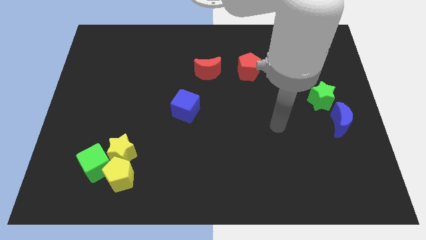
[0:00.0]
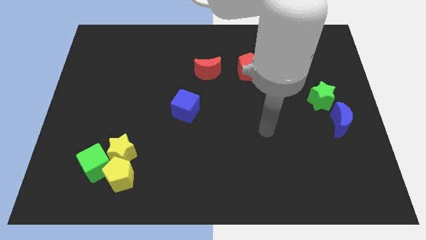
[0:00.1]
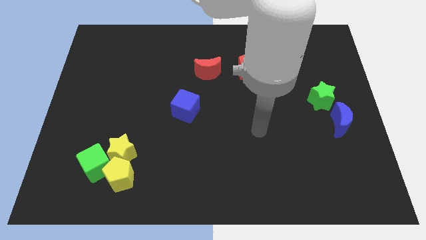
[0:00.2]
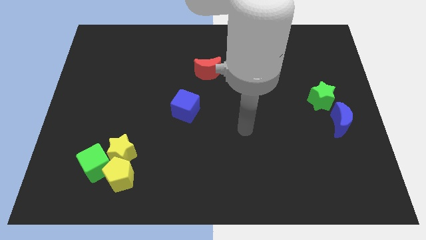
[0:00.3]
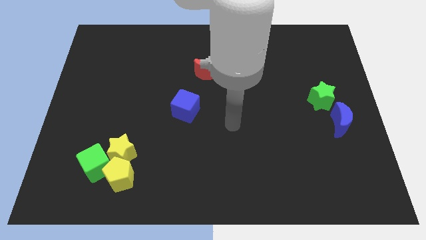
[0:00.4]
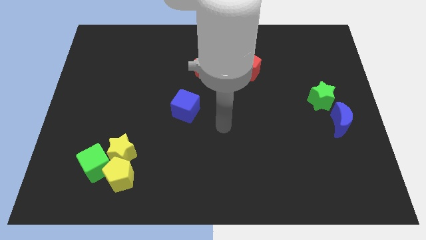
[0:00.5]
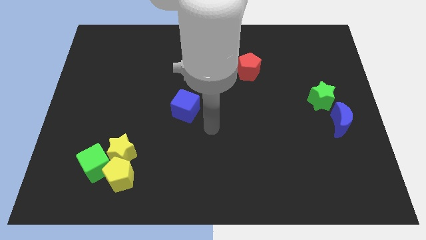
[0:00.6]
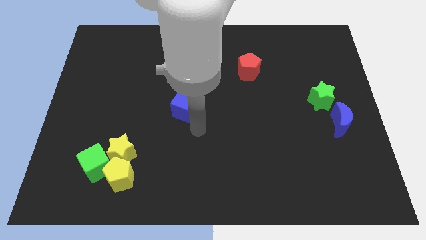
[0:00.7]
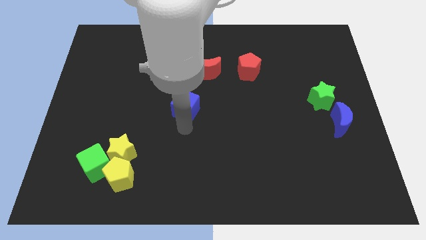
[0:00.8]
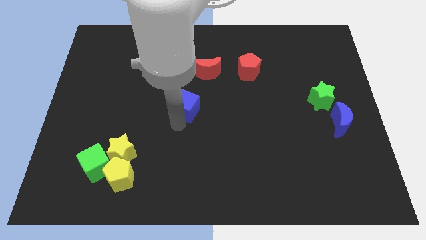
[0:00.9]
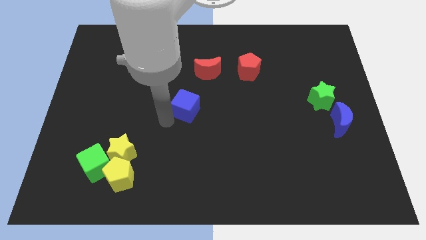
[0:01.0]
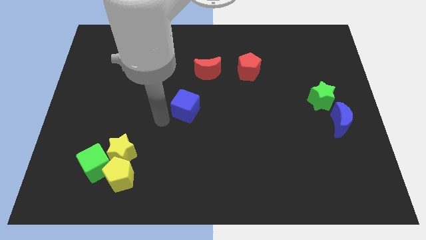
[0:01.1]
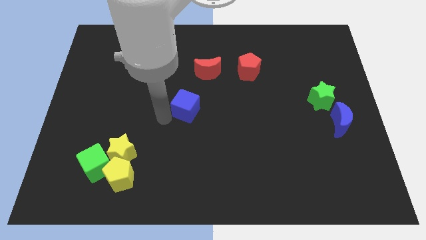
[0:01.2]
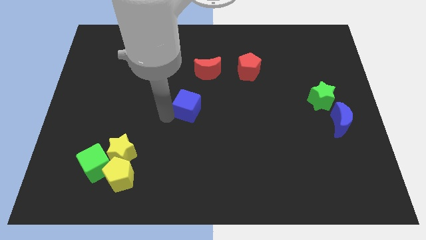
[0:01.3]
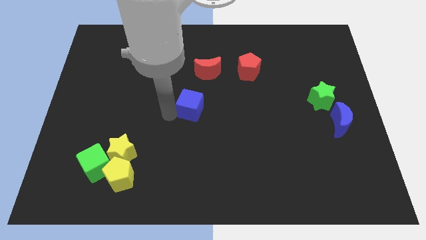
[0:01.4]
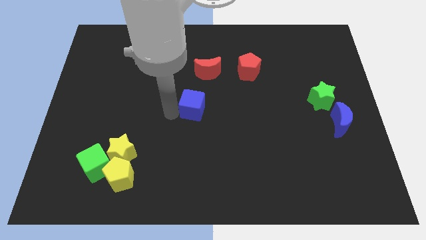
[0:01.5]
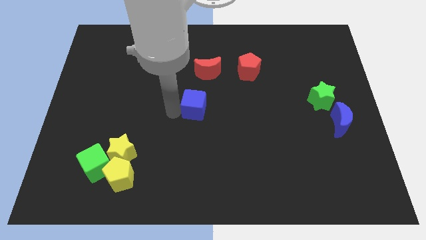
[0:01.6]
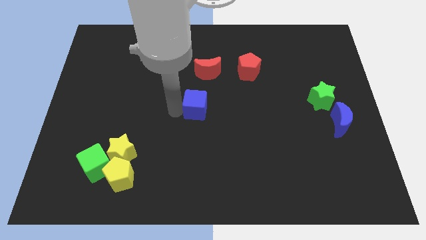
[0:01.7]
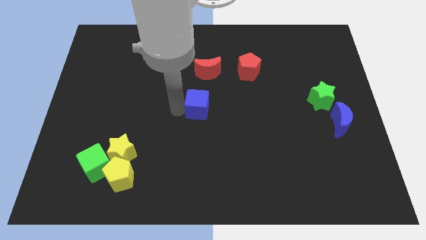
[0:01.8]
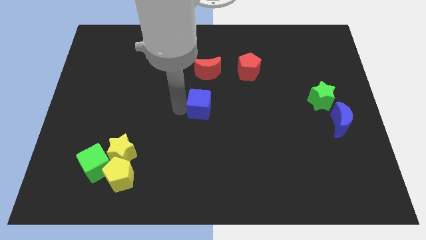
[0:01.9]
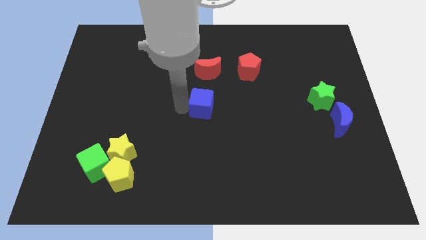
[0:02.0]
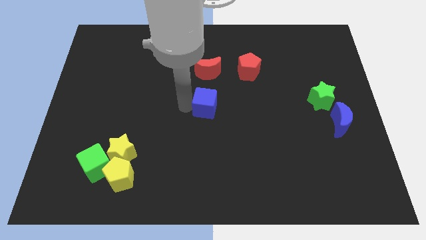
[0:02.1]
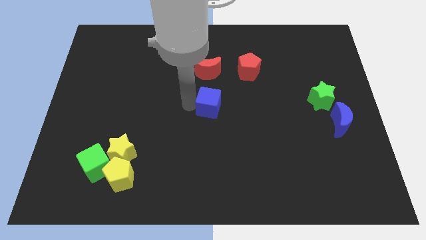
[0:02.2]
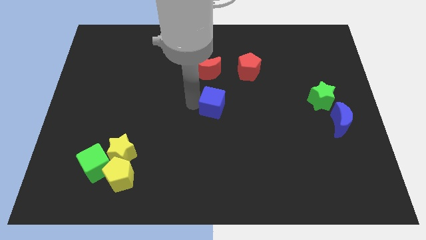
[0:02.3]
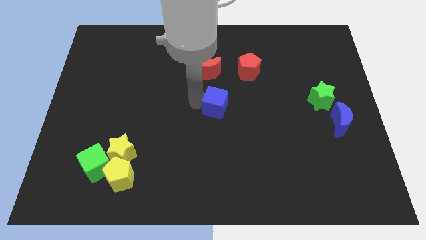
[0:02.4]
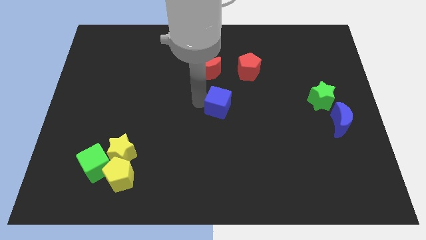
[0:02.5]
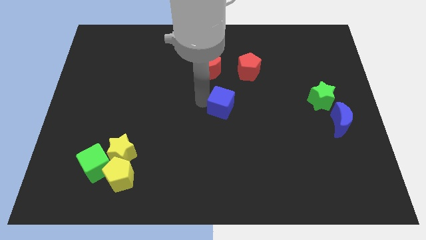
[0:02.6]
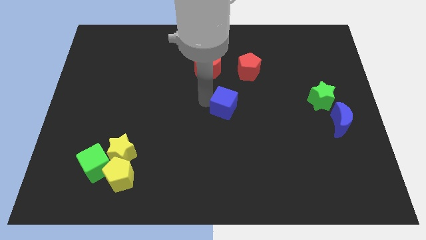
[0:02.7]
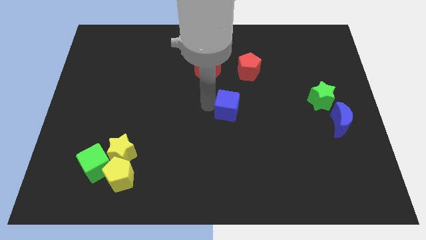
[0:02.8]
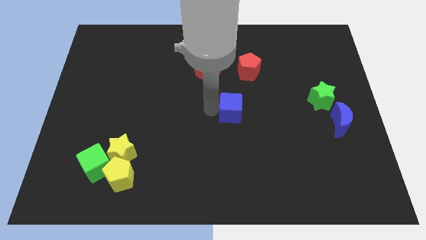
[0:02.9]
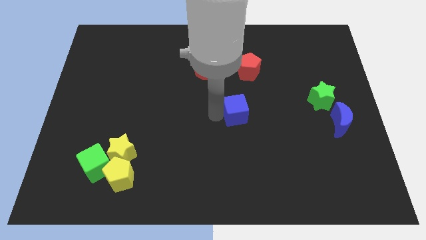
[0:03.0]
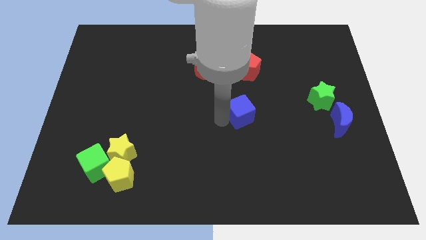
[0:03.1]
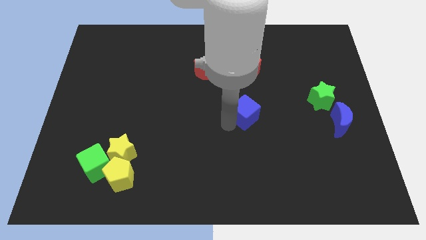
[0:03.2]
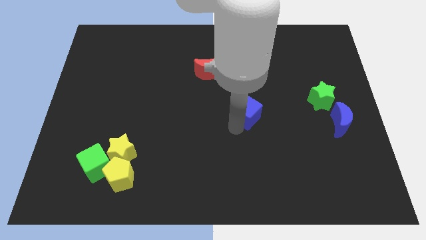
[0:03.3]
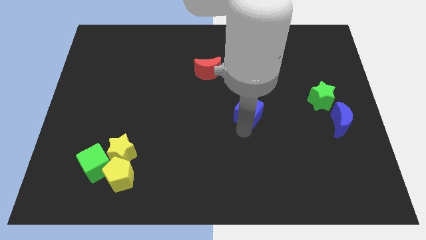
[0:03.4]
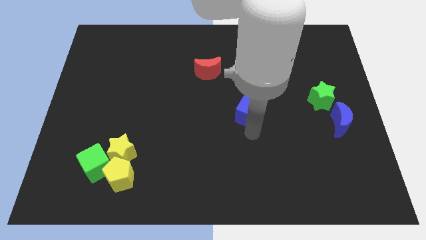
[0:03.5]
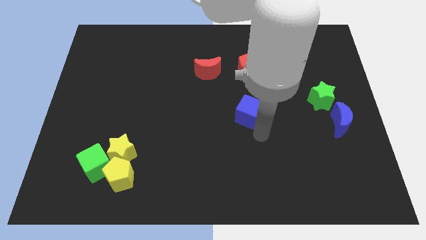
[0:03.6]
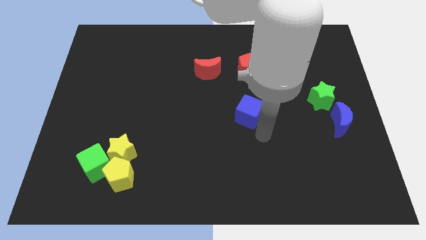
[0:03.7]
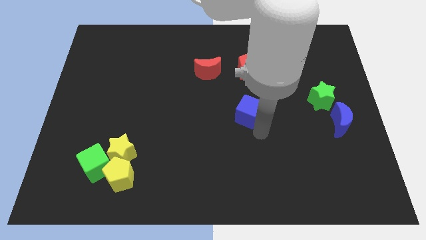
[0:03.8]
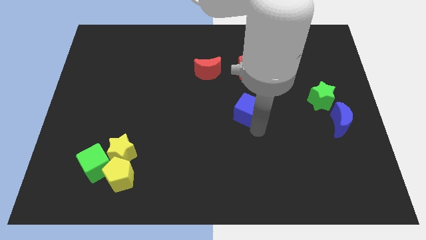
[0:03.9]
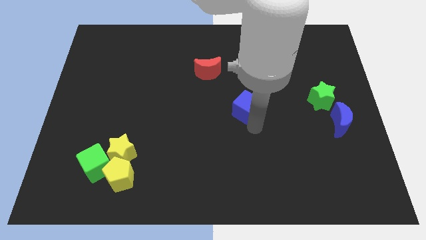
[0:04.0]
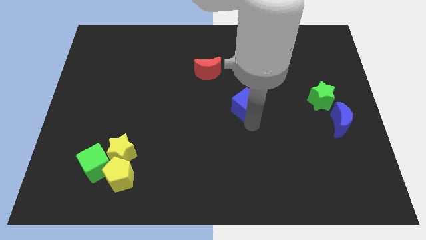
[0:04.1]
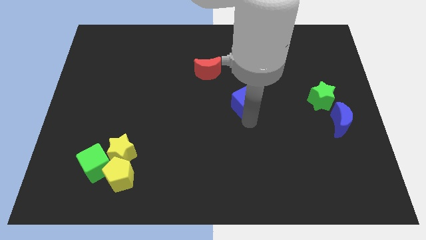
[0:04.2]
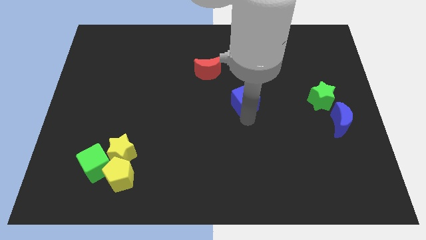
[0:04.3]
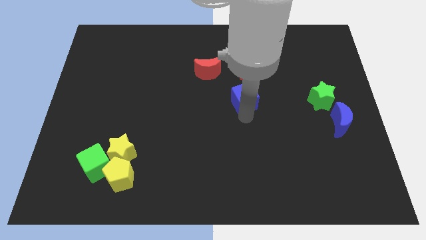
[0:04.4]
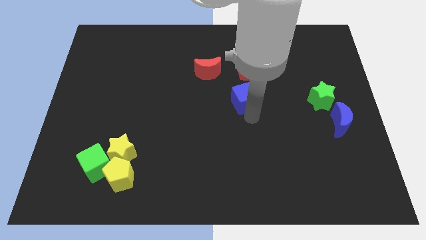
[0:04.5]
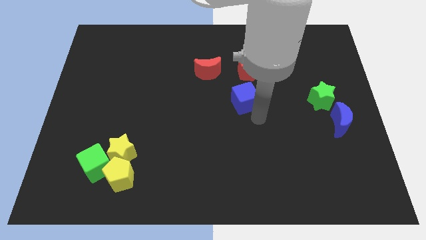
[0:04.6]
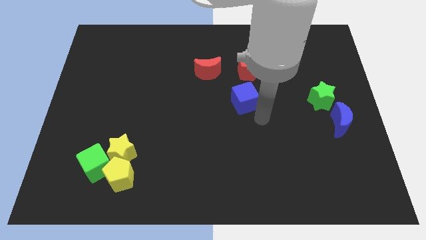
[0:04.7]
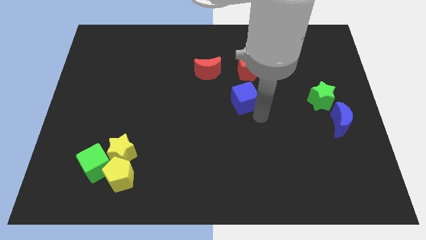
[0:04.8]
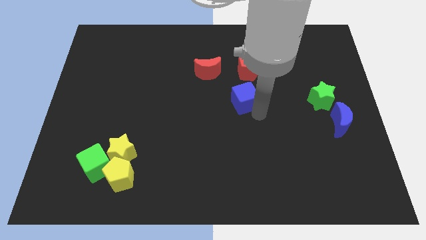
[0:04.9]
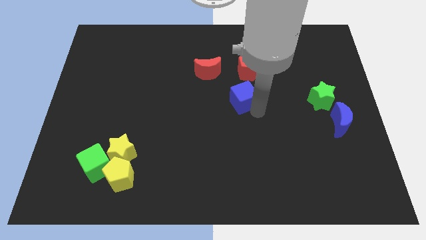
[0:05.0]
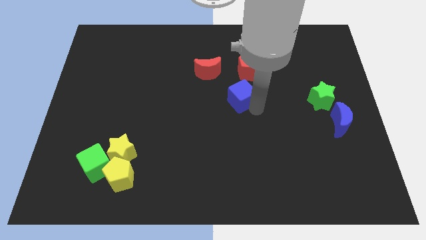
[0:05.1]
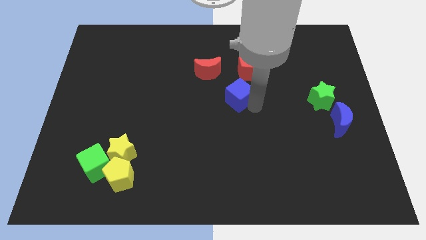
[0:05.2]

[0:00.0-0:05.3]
push the blue cube to the bottom left side of the red pentagon

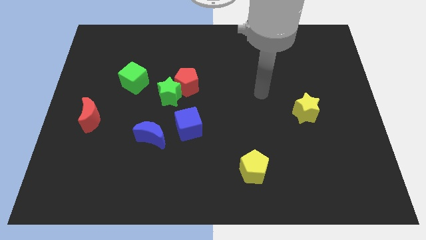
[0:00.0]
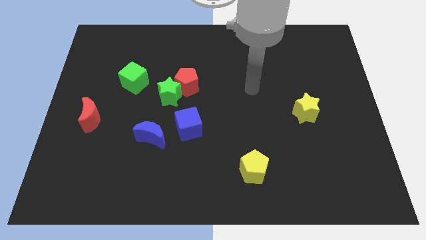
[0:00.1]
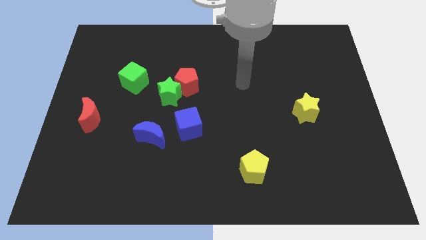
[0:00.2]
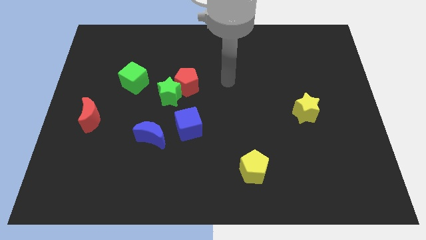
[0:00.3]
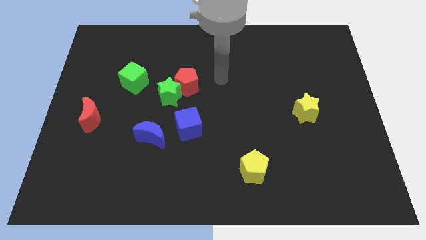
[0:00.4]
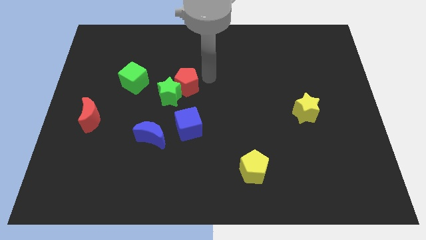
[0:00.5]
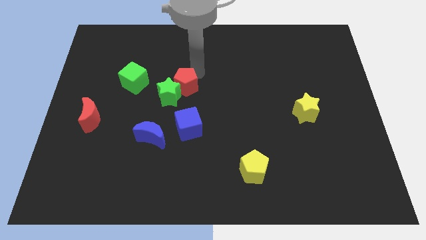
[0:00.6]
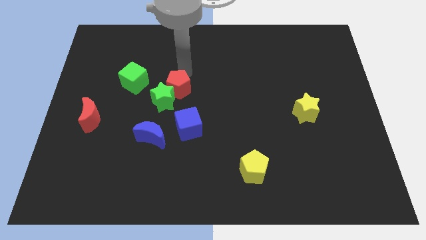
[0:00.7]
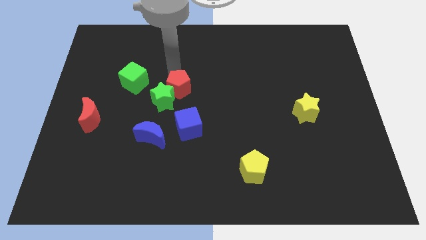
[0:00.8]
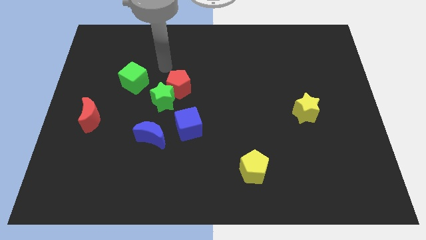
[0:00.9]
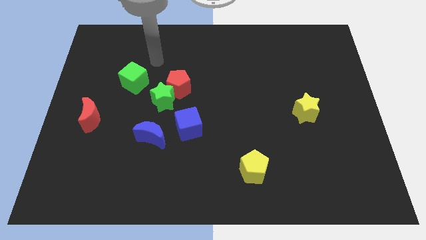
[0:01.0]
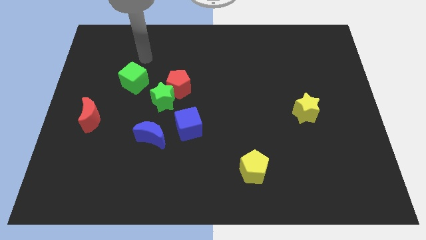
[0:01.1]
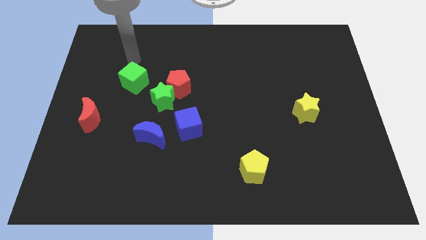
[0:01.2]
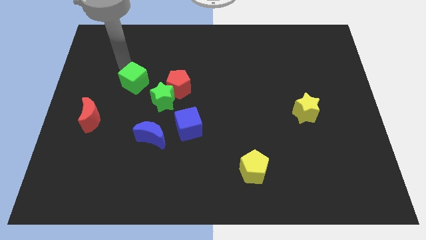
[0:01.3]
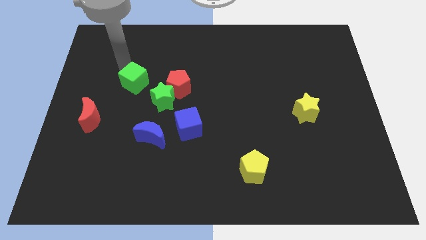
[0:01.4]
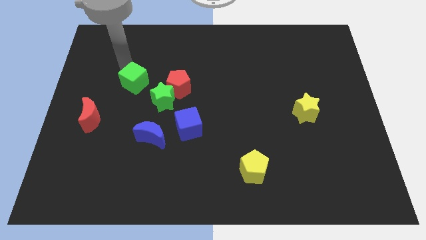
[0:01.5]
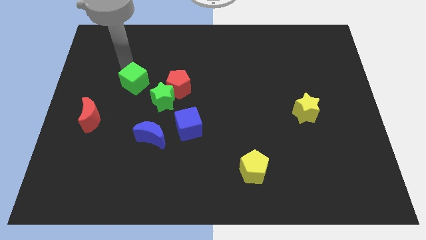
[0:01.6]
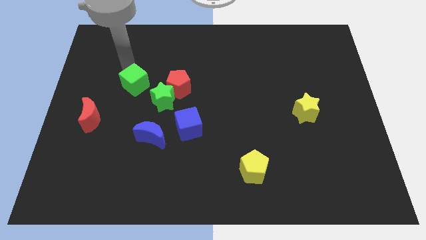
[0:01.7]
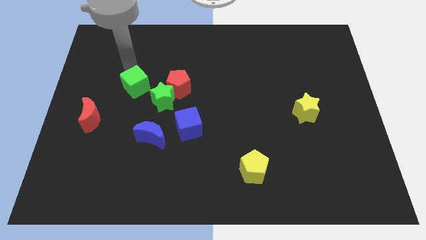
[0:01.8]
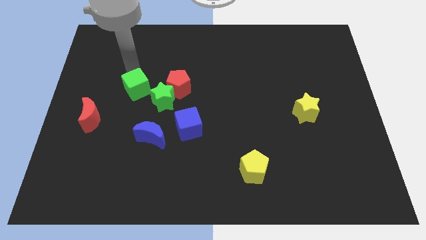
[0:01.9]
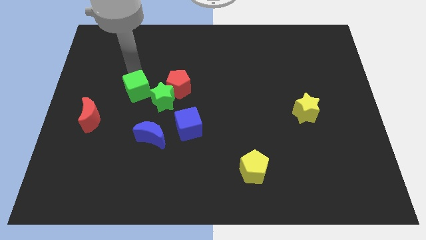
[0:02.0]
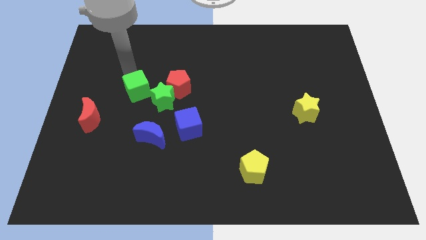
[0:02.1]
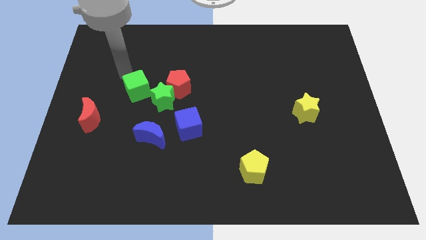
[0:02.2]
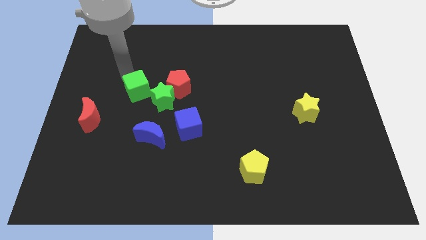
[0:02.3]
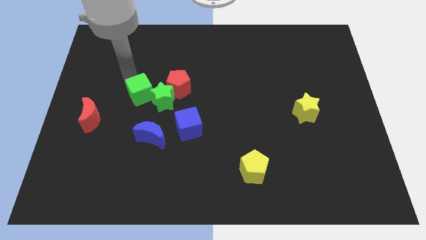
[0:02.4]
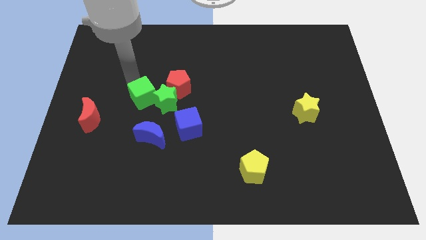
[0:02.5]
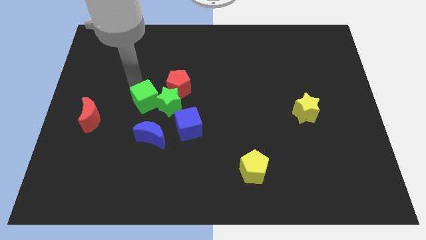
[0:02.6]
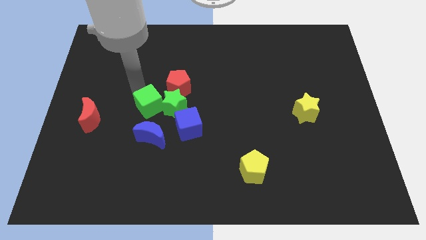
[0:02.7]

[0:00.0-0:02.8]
push the green cube diagonally up and to the left of the blue cube
